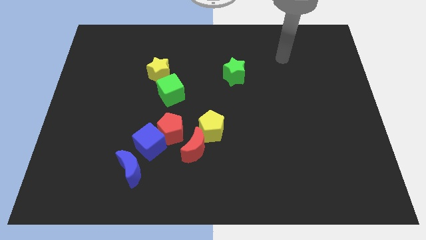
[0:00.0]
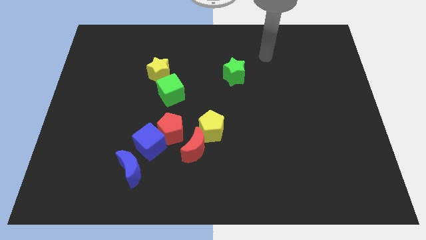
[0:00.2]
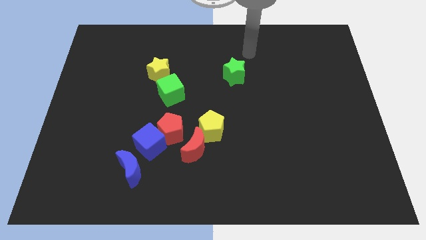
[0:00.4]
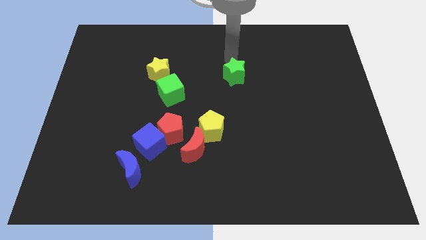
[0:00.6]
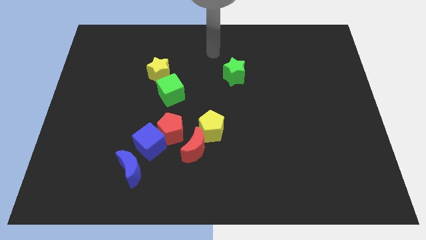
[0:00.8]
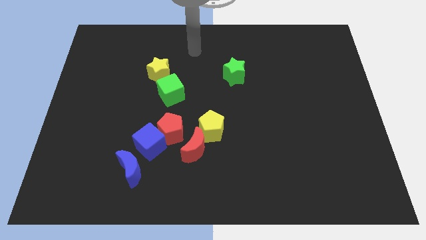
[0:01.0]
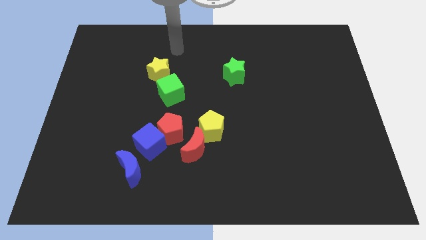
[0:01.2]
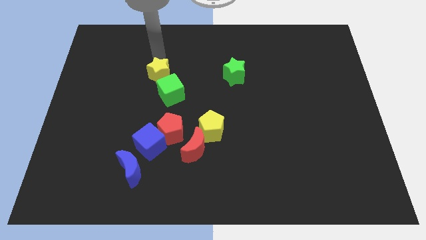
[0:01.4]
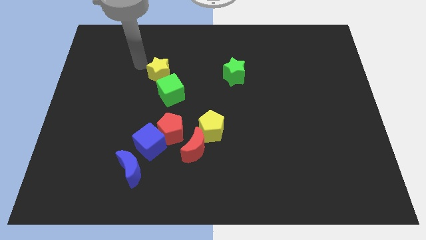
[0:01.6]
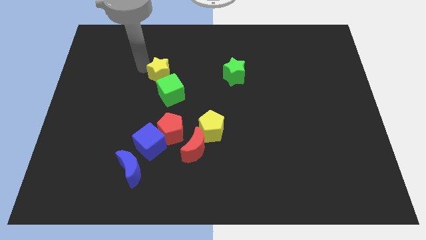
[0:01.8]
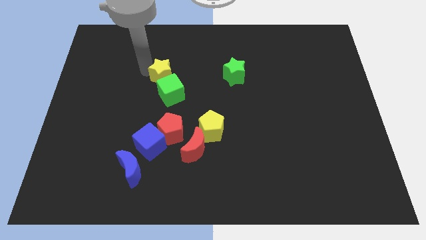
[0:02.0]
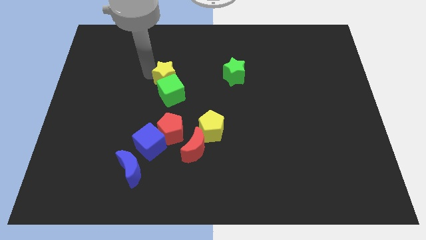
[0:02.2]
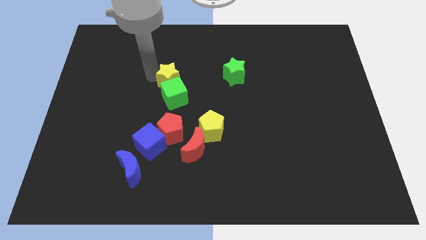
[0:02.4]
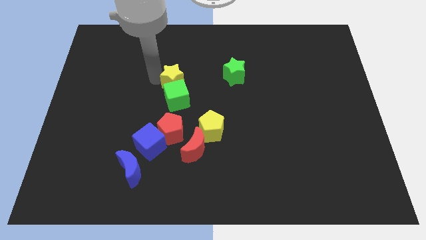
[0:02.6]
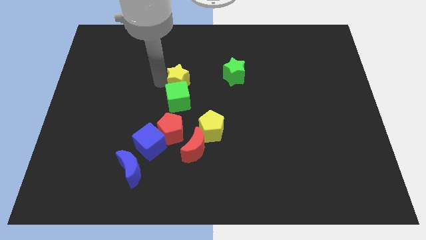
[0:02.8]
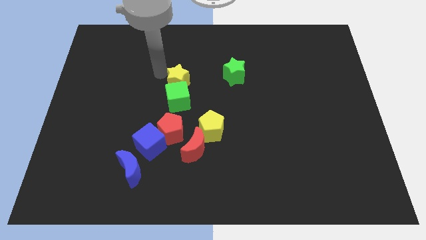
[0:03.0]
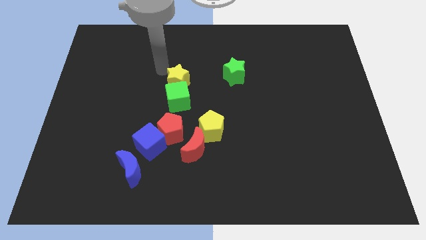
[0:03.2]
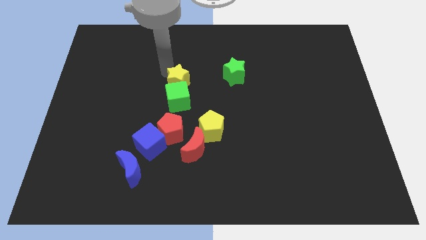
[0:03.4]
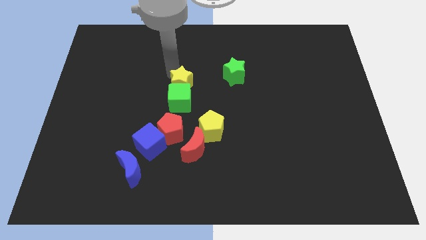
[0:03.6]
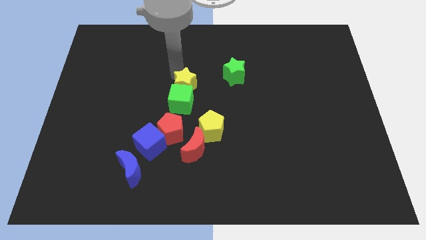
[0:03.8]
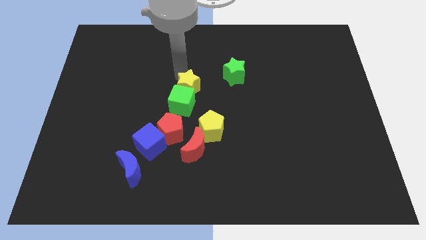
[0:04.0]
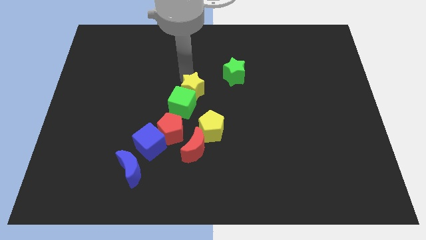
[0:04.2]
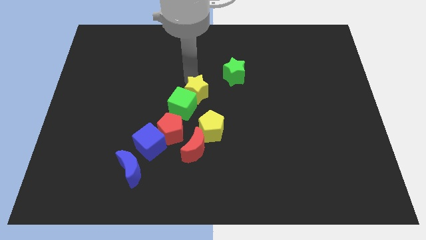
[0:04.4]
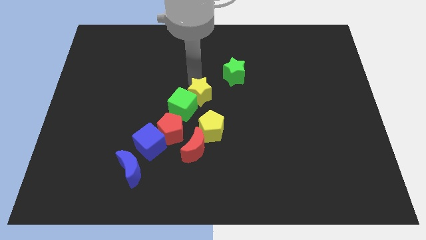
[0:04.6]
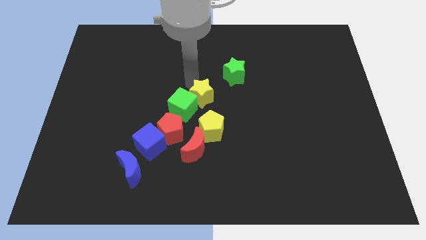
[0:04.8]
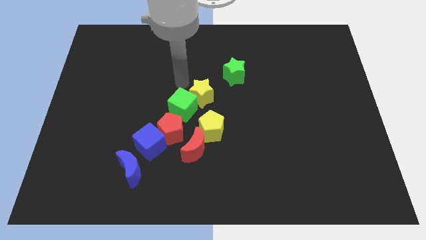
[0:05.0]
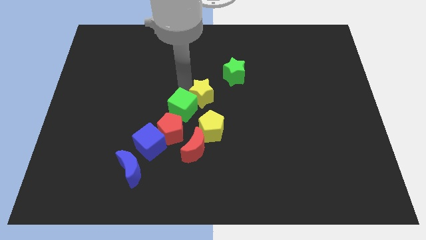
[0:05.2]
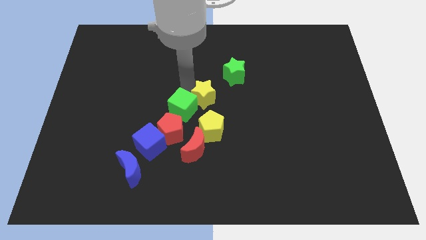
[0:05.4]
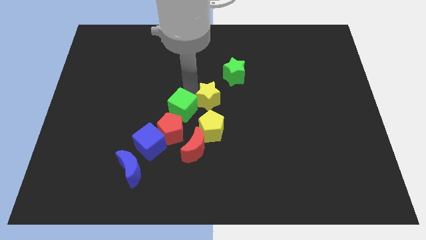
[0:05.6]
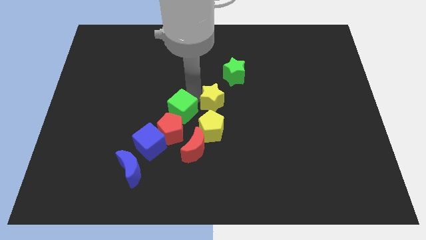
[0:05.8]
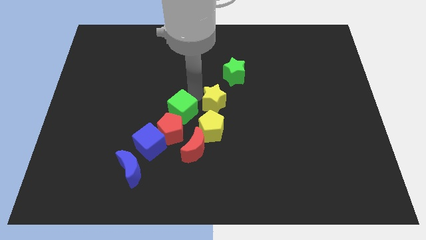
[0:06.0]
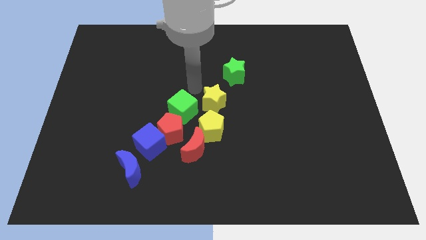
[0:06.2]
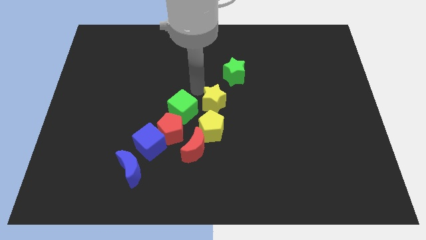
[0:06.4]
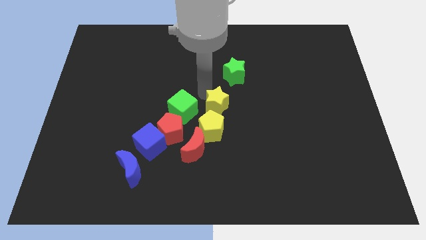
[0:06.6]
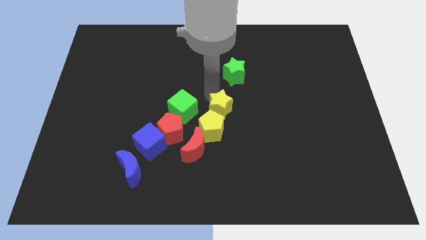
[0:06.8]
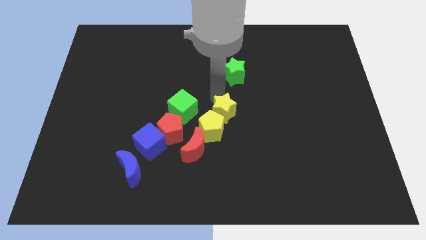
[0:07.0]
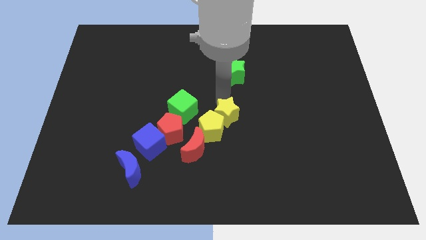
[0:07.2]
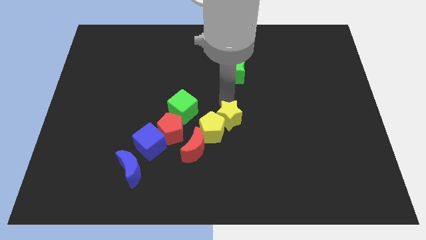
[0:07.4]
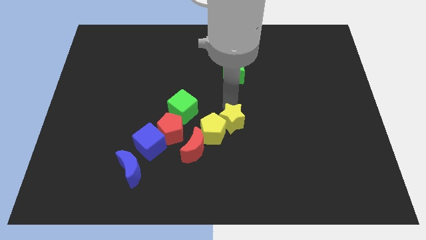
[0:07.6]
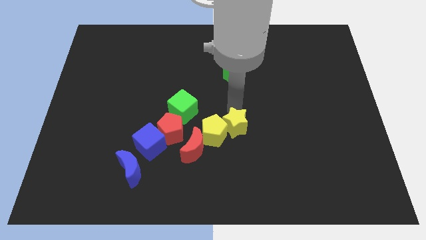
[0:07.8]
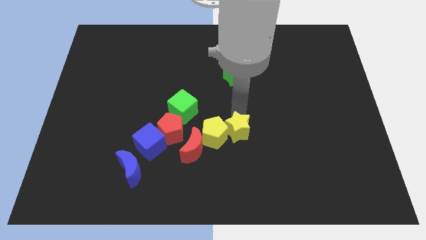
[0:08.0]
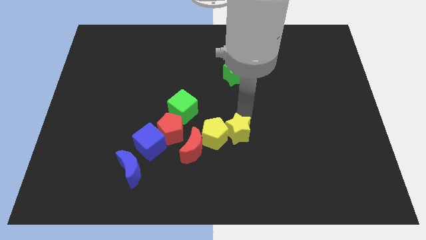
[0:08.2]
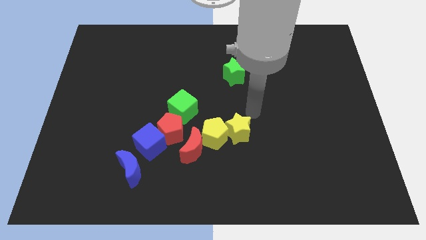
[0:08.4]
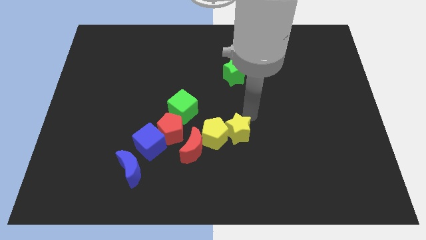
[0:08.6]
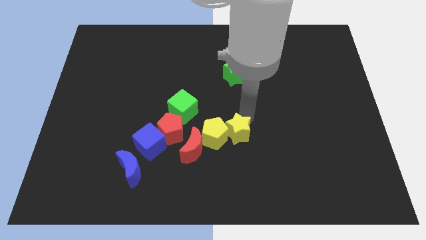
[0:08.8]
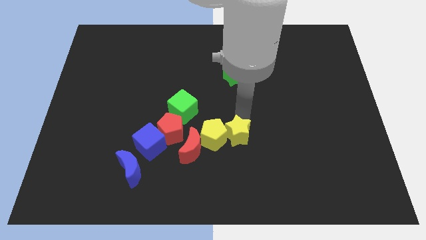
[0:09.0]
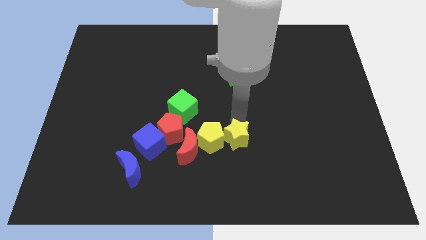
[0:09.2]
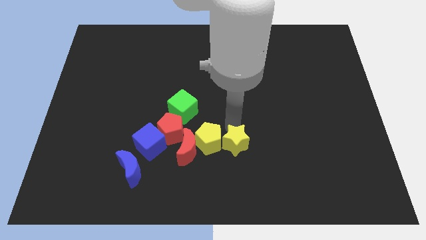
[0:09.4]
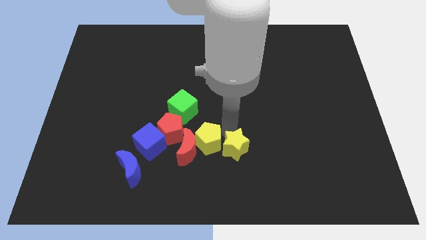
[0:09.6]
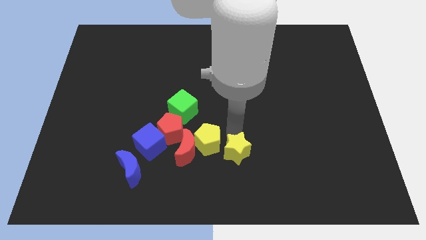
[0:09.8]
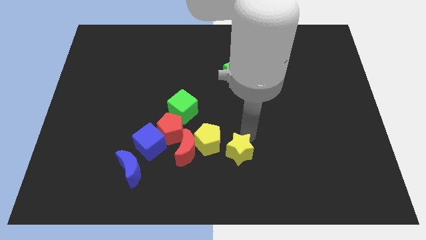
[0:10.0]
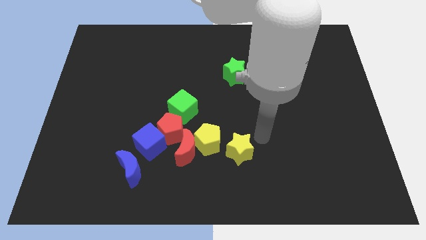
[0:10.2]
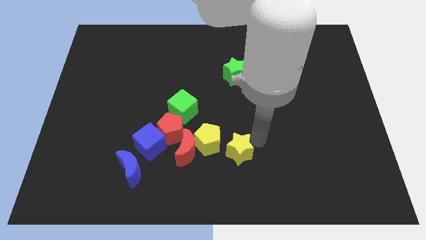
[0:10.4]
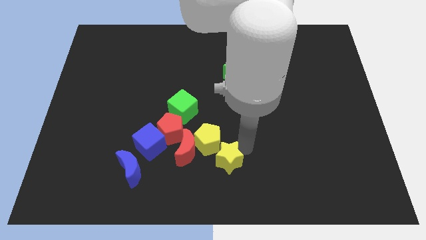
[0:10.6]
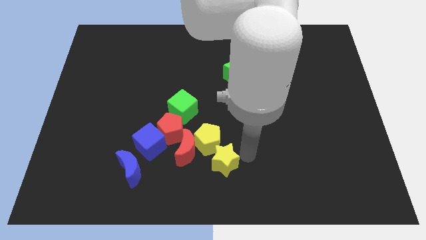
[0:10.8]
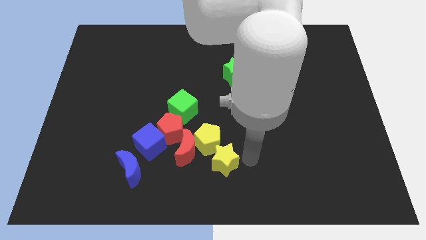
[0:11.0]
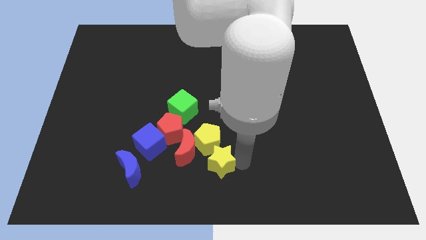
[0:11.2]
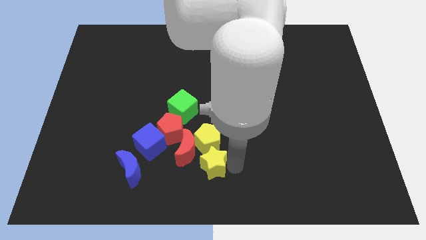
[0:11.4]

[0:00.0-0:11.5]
push the yellow star diagonally down and to the left of the yellow pentagon

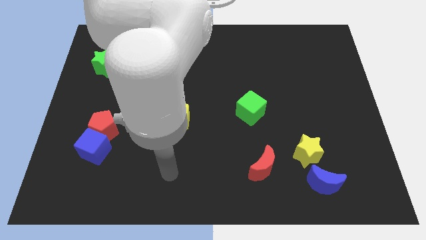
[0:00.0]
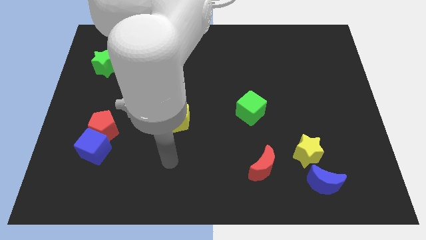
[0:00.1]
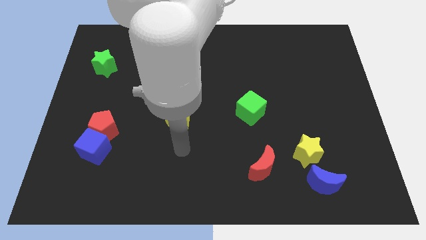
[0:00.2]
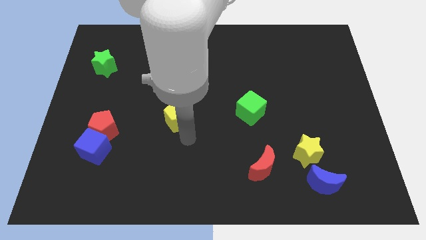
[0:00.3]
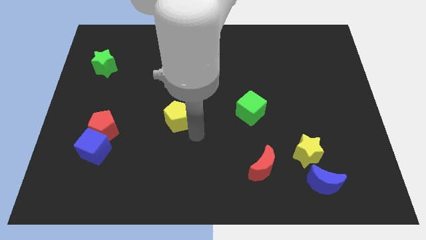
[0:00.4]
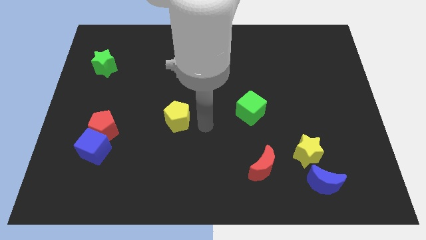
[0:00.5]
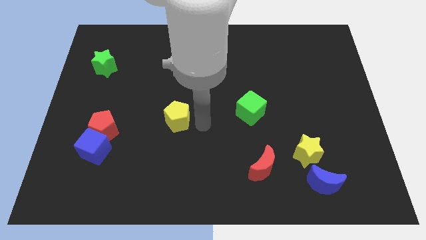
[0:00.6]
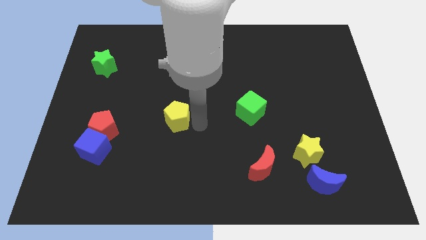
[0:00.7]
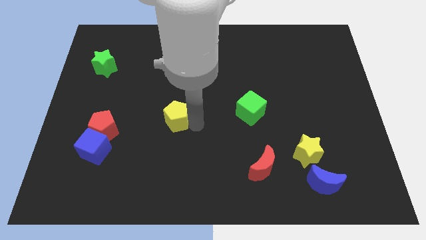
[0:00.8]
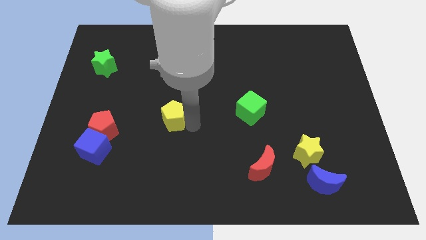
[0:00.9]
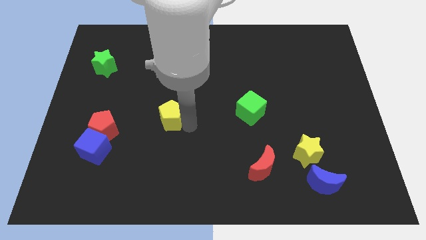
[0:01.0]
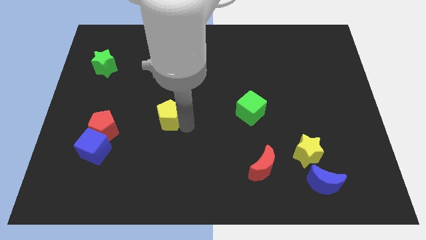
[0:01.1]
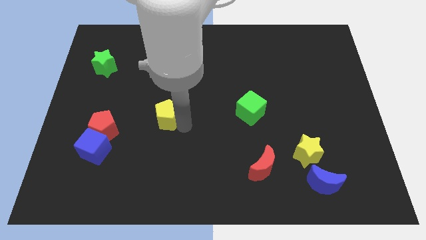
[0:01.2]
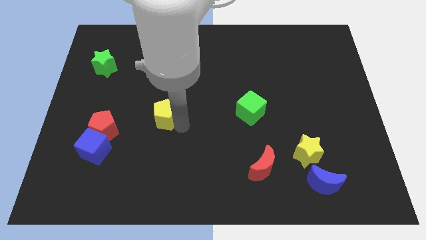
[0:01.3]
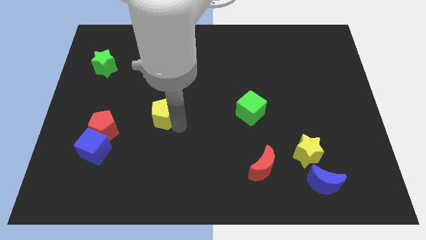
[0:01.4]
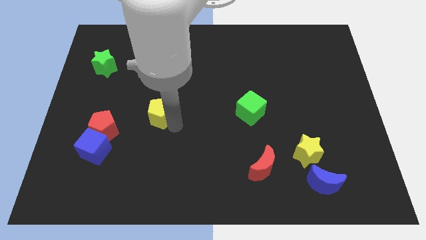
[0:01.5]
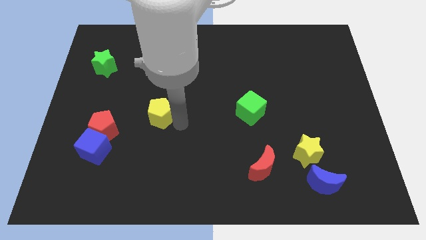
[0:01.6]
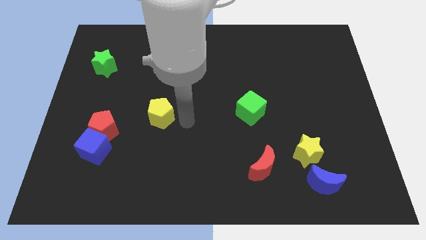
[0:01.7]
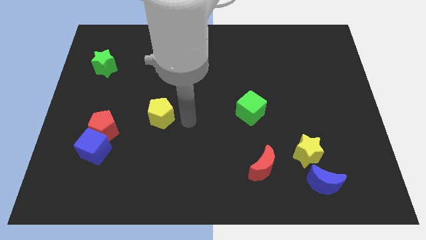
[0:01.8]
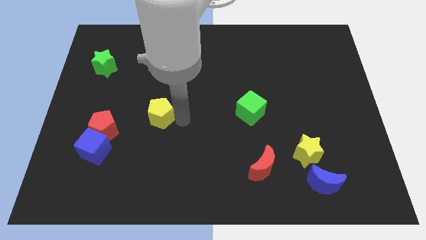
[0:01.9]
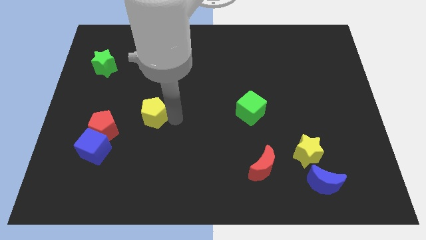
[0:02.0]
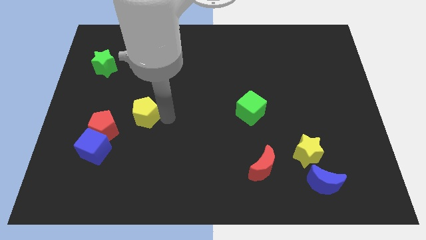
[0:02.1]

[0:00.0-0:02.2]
slide the yellow pentagon to the top right side of the red pentagon
